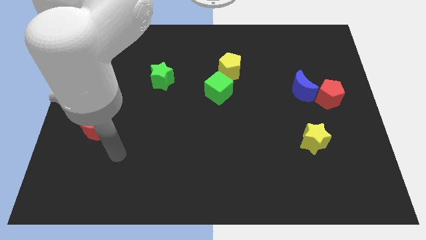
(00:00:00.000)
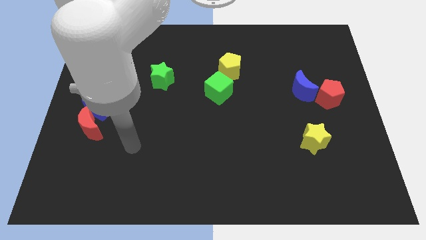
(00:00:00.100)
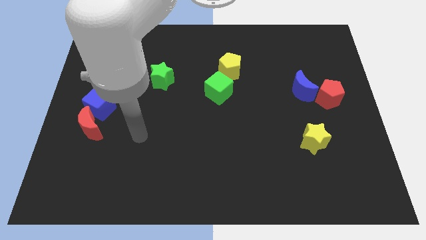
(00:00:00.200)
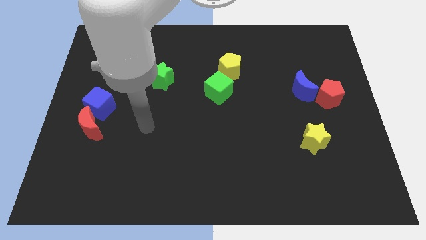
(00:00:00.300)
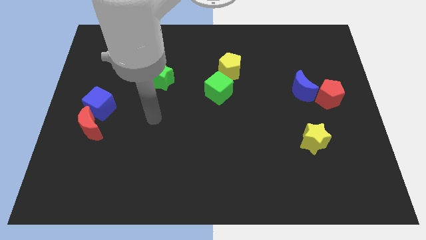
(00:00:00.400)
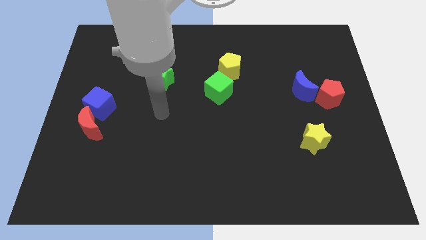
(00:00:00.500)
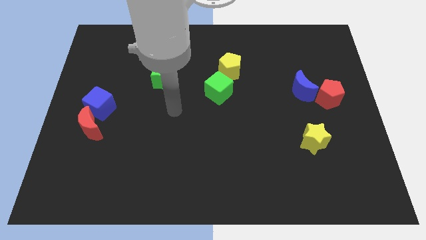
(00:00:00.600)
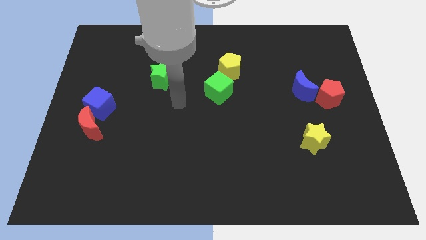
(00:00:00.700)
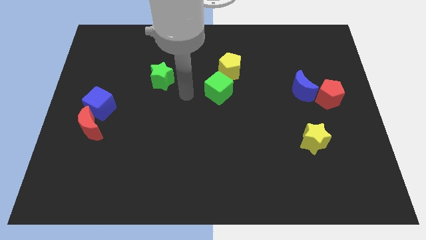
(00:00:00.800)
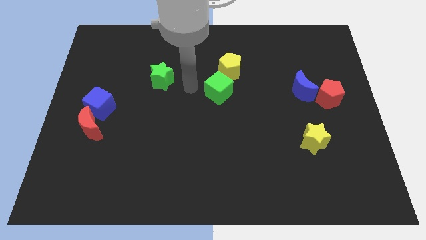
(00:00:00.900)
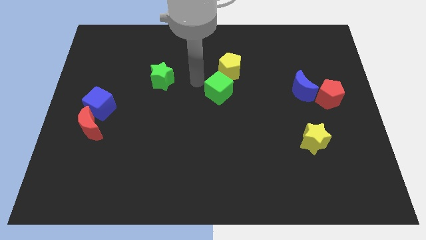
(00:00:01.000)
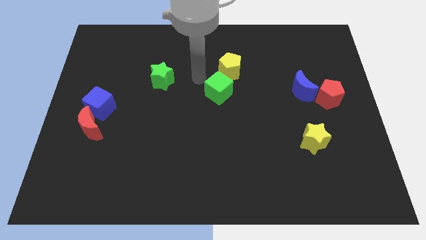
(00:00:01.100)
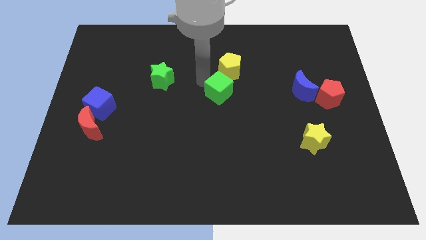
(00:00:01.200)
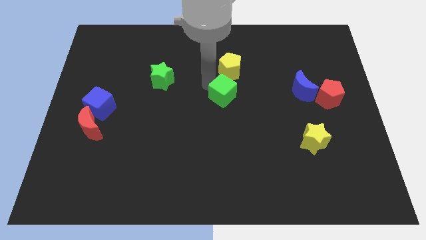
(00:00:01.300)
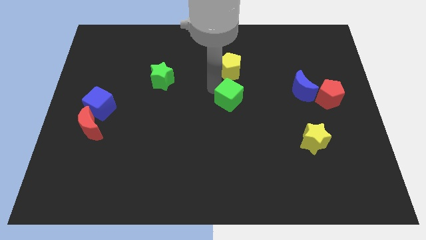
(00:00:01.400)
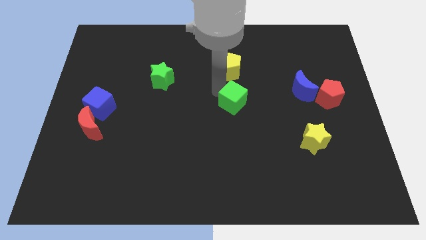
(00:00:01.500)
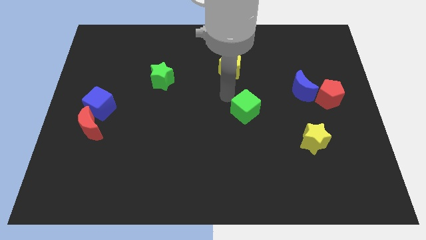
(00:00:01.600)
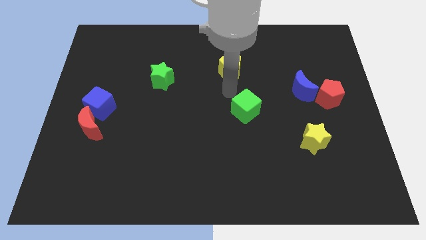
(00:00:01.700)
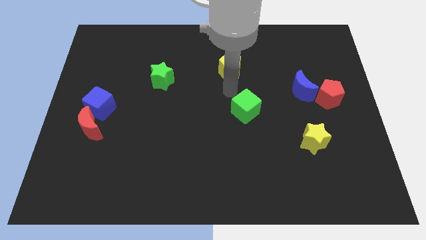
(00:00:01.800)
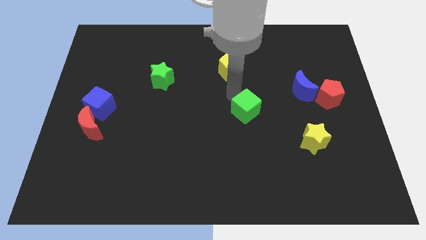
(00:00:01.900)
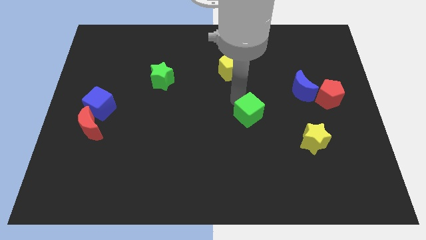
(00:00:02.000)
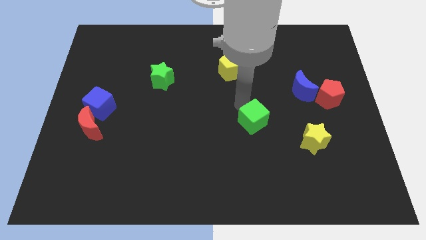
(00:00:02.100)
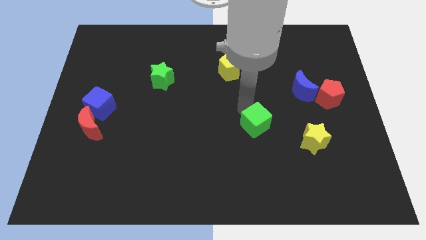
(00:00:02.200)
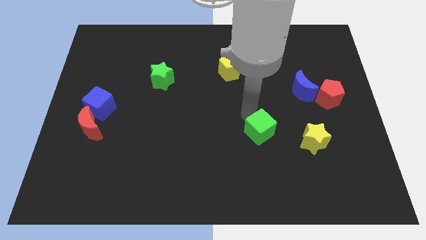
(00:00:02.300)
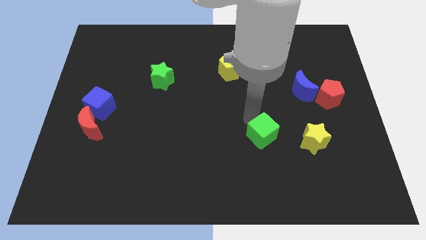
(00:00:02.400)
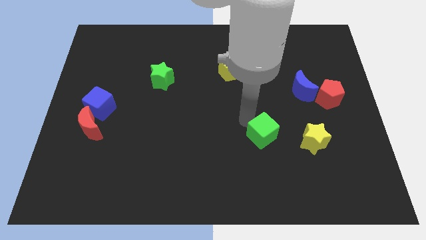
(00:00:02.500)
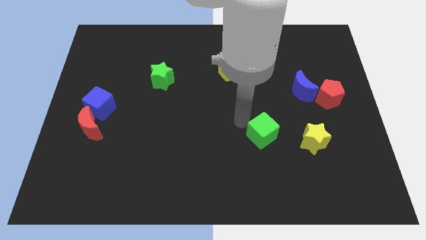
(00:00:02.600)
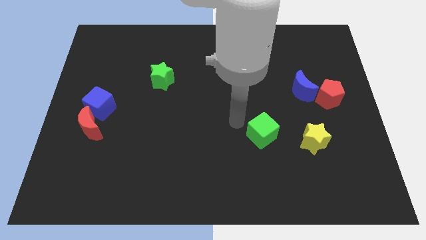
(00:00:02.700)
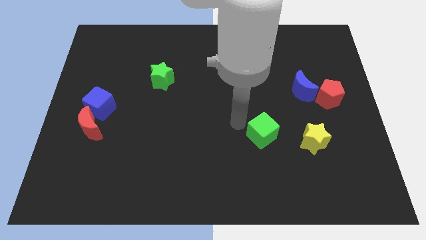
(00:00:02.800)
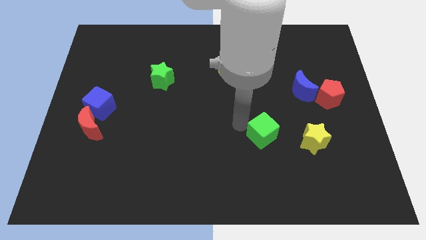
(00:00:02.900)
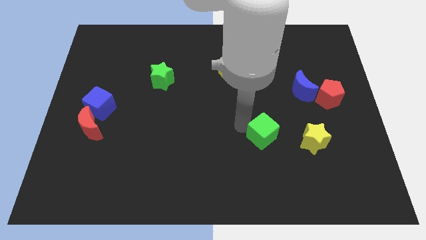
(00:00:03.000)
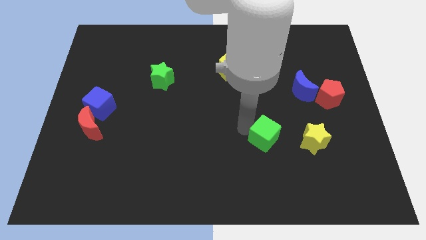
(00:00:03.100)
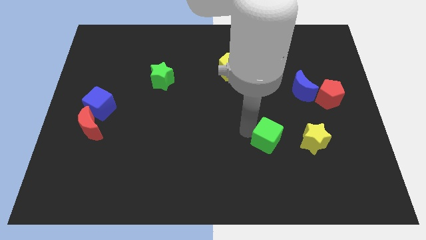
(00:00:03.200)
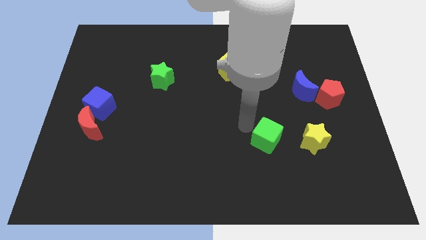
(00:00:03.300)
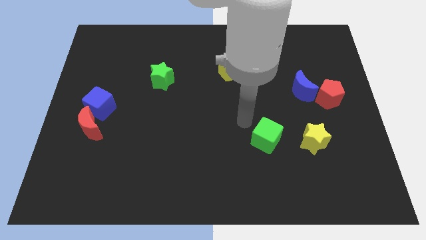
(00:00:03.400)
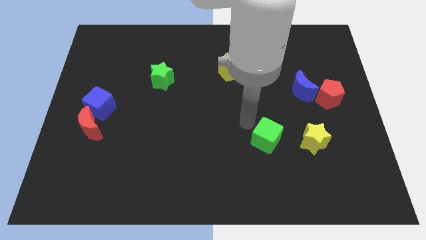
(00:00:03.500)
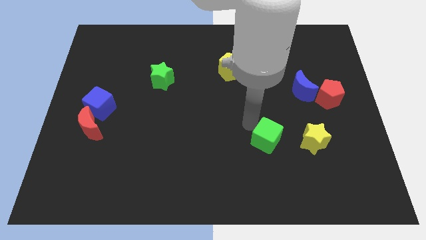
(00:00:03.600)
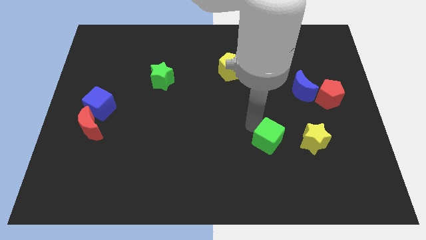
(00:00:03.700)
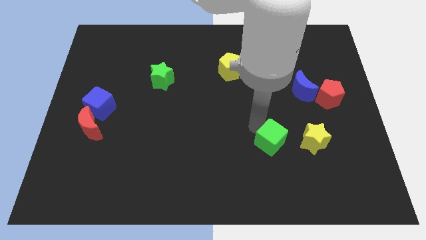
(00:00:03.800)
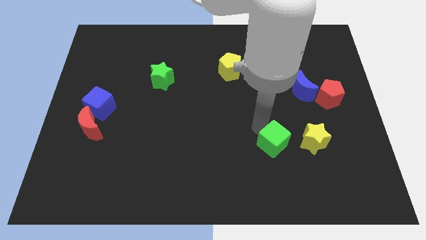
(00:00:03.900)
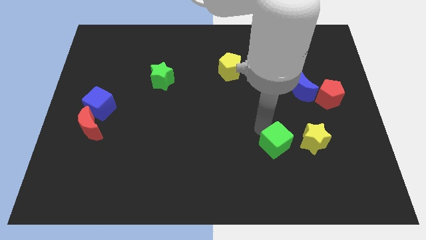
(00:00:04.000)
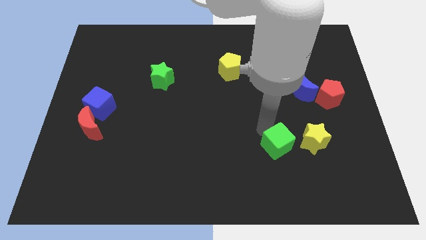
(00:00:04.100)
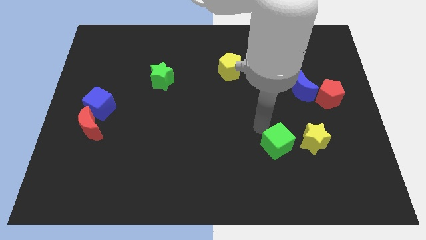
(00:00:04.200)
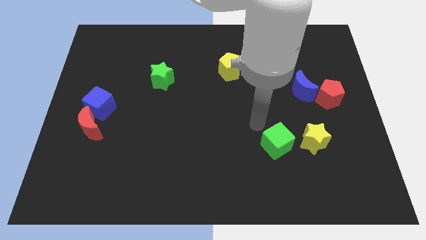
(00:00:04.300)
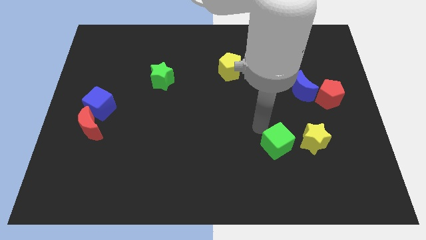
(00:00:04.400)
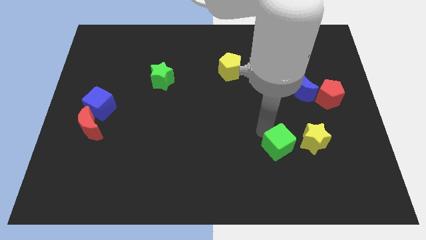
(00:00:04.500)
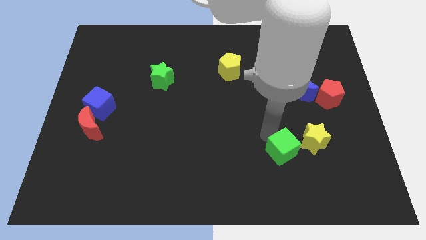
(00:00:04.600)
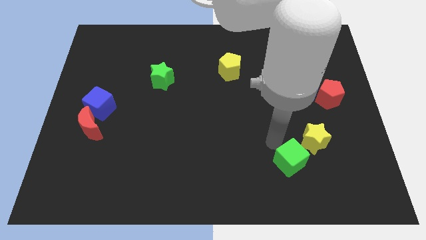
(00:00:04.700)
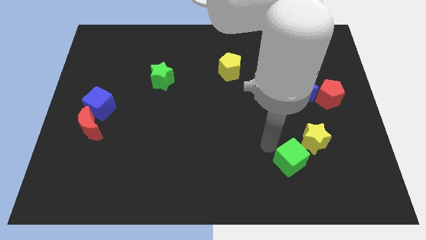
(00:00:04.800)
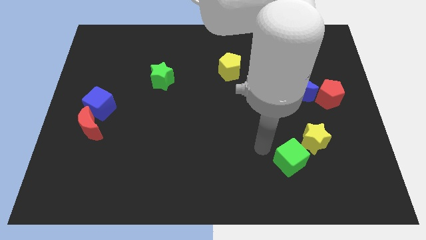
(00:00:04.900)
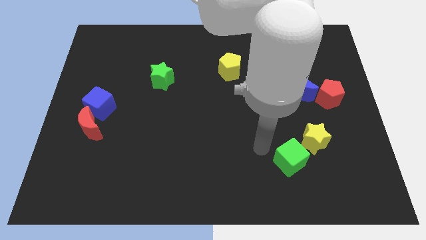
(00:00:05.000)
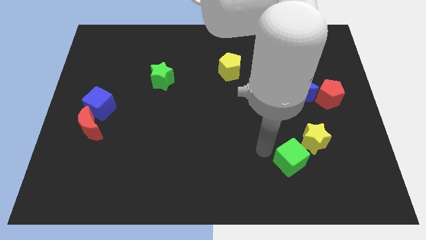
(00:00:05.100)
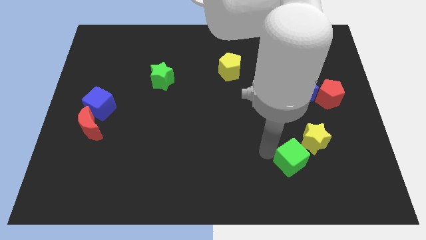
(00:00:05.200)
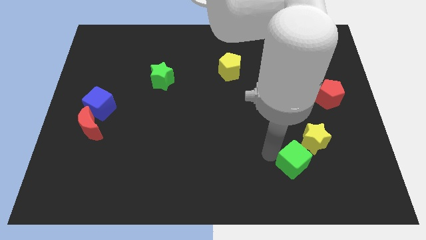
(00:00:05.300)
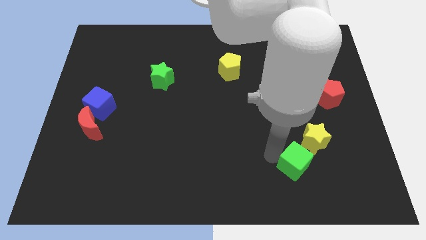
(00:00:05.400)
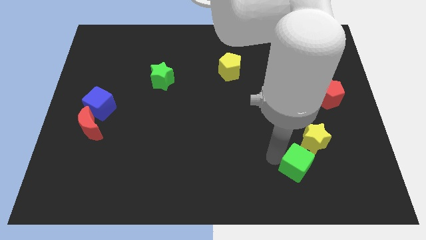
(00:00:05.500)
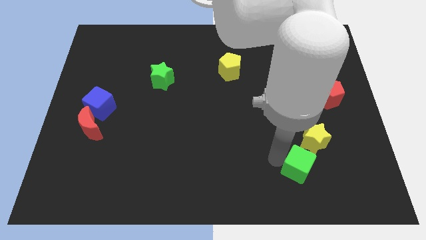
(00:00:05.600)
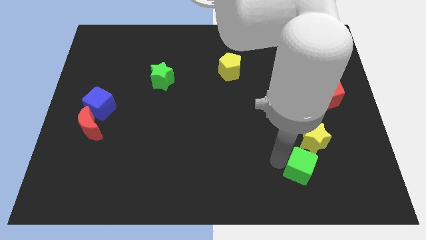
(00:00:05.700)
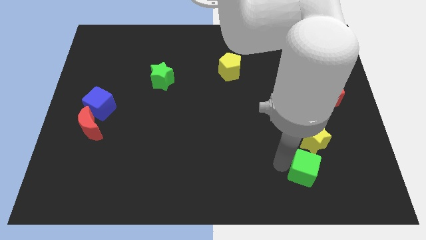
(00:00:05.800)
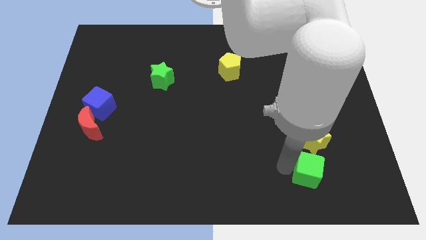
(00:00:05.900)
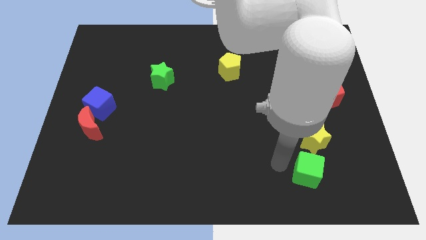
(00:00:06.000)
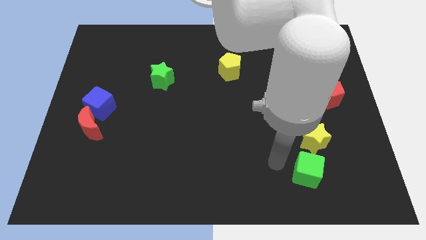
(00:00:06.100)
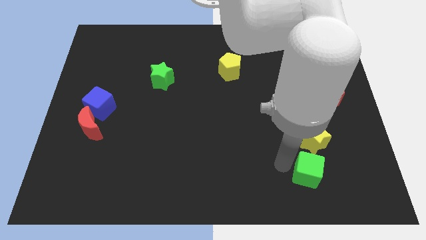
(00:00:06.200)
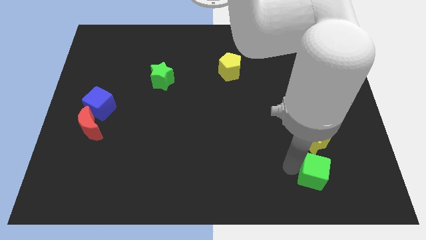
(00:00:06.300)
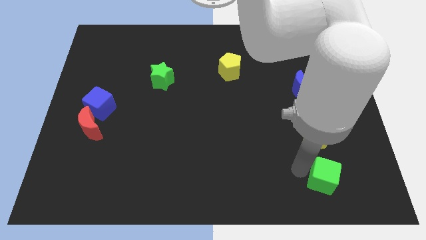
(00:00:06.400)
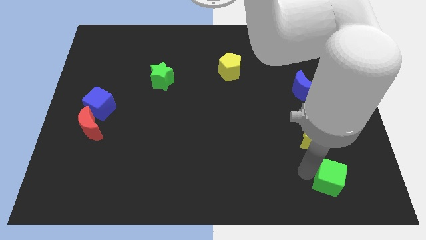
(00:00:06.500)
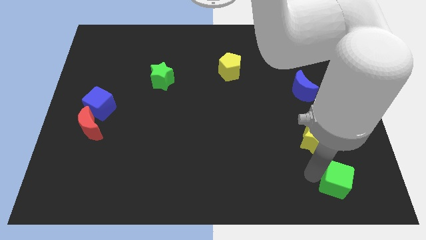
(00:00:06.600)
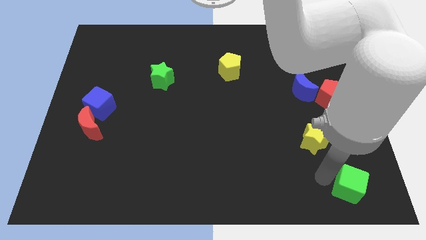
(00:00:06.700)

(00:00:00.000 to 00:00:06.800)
put the green cube to the bottom right corner
